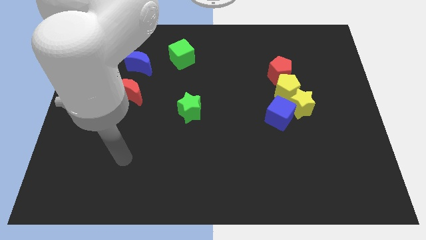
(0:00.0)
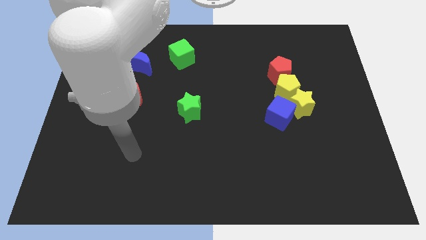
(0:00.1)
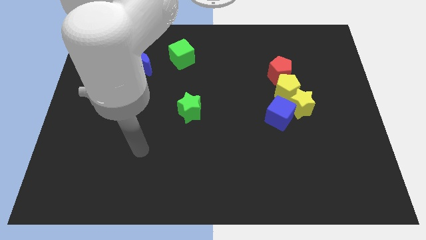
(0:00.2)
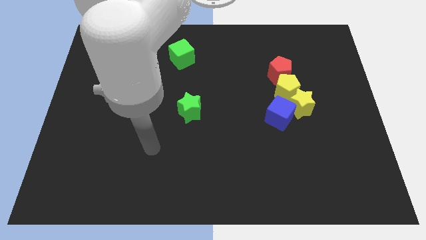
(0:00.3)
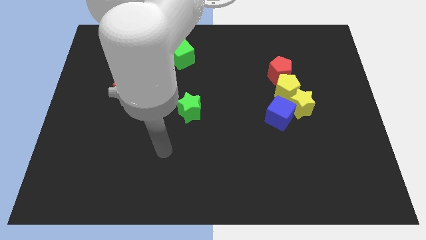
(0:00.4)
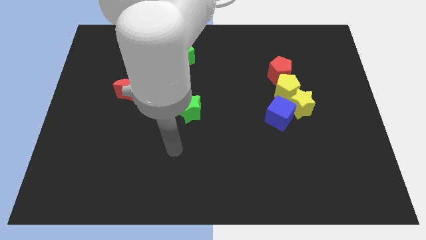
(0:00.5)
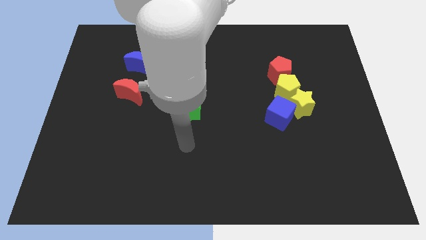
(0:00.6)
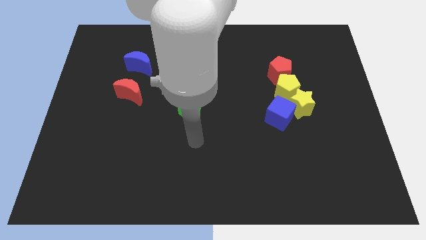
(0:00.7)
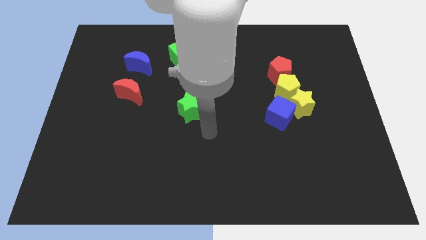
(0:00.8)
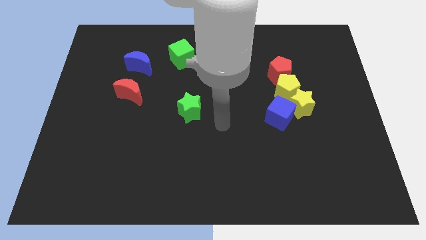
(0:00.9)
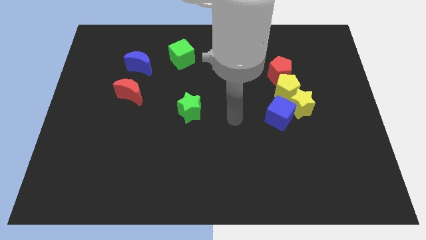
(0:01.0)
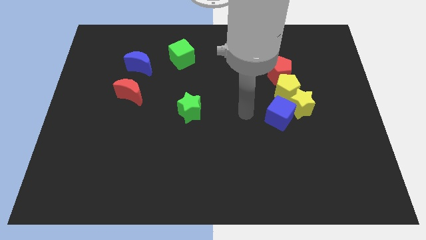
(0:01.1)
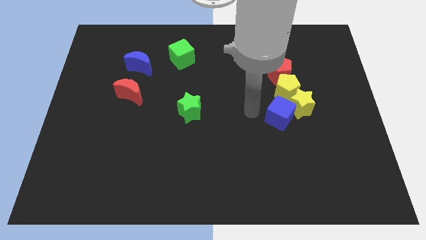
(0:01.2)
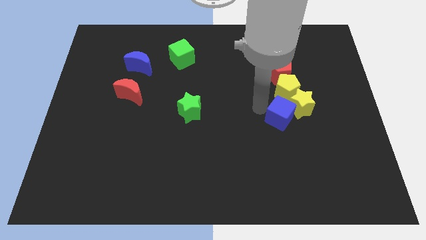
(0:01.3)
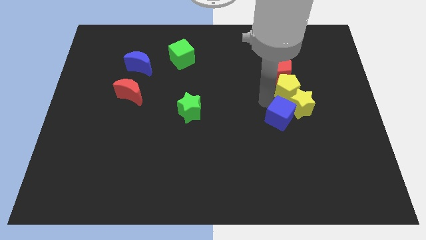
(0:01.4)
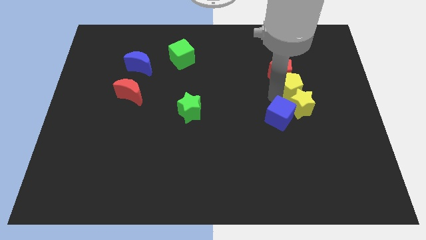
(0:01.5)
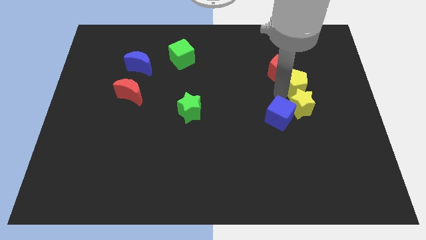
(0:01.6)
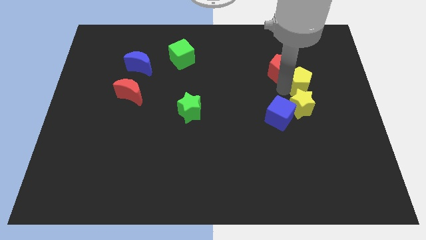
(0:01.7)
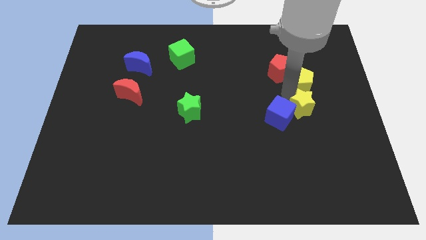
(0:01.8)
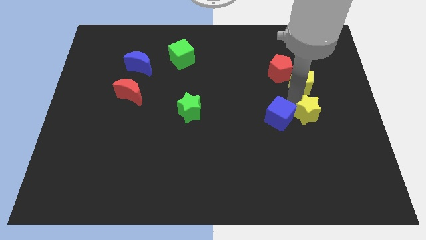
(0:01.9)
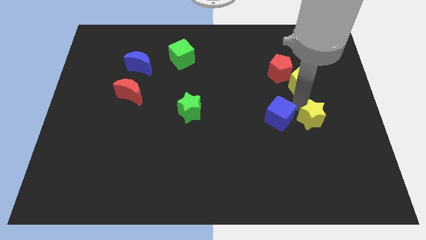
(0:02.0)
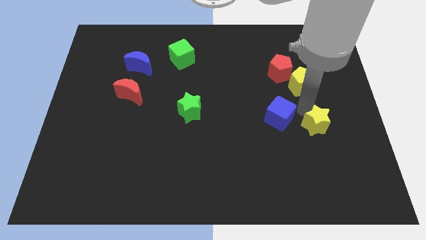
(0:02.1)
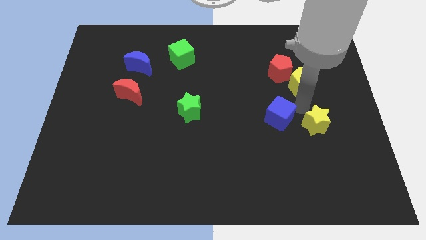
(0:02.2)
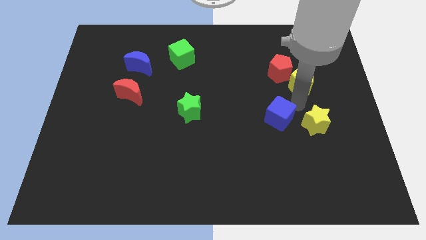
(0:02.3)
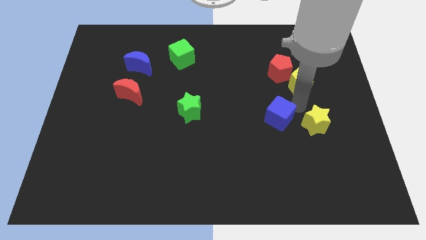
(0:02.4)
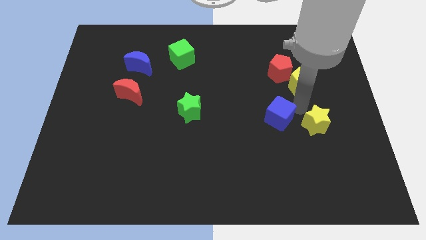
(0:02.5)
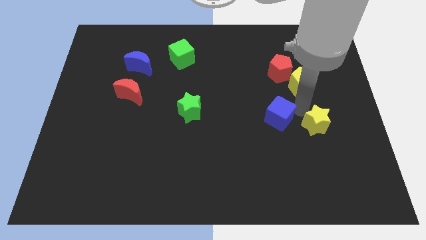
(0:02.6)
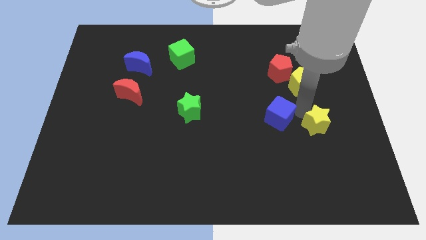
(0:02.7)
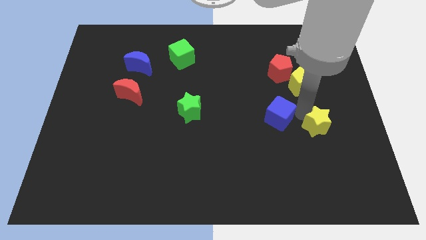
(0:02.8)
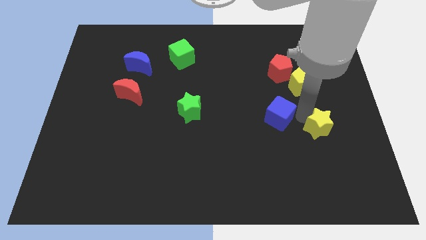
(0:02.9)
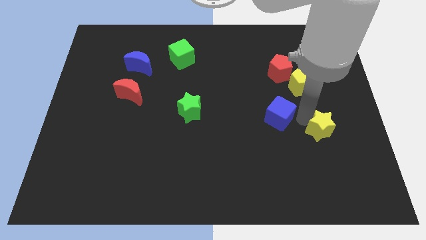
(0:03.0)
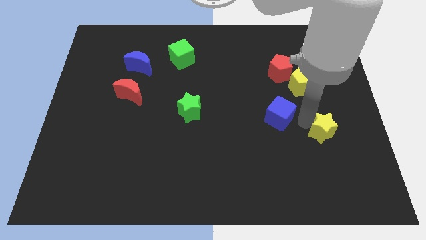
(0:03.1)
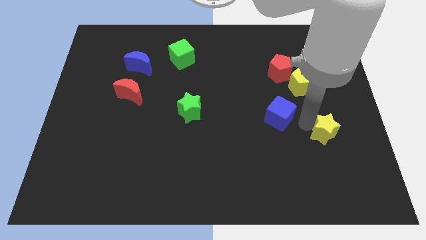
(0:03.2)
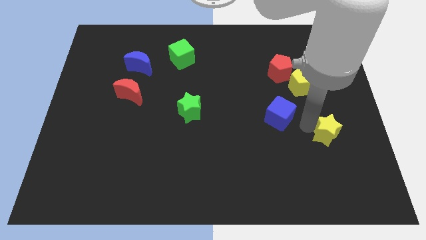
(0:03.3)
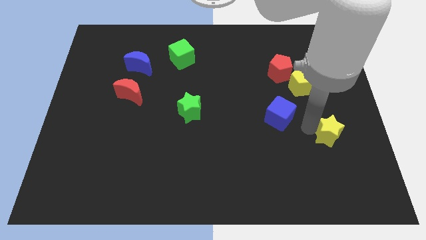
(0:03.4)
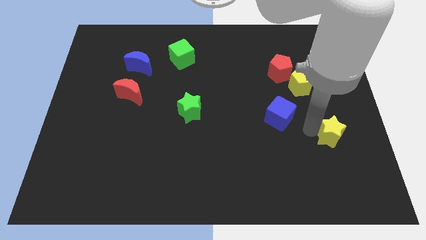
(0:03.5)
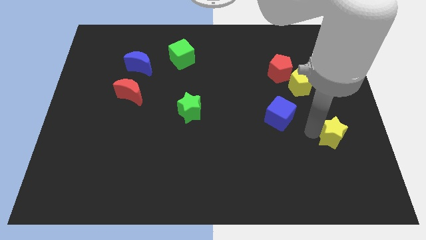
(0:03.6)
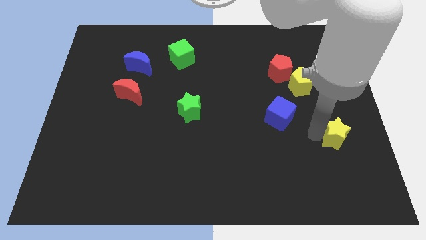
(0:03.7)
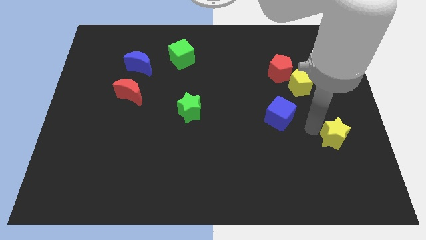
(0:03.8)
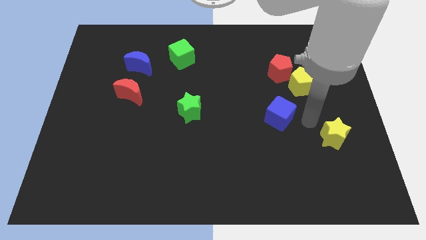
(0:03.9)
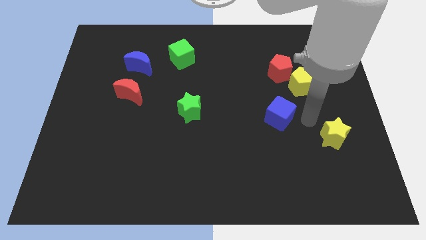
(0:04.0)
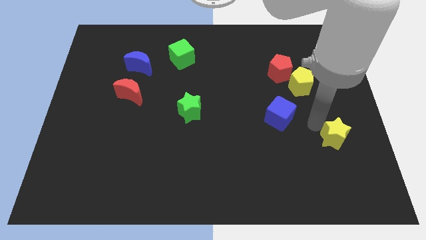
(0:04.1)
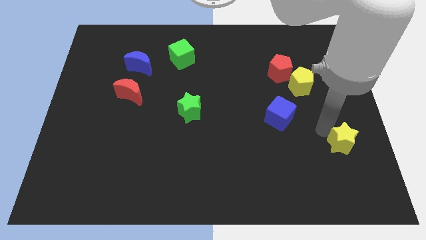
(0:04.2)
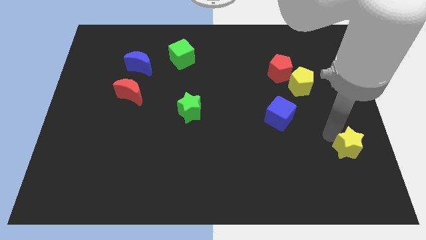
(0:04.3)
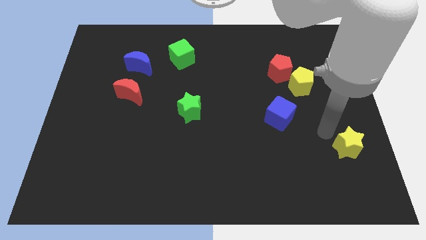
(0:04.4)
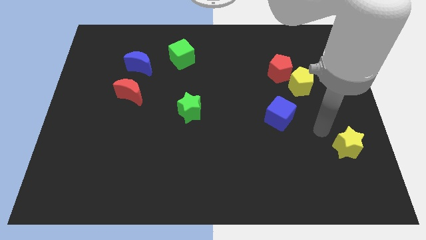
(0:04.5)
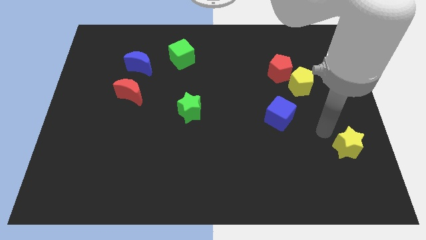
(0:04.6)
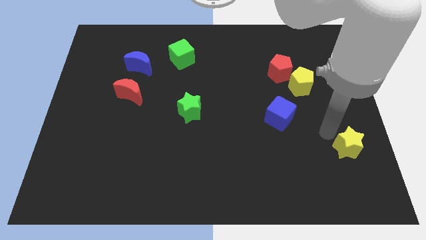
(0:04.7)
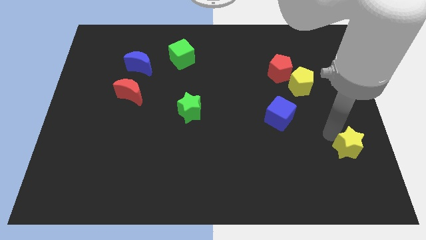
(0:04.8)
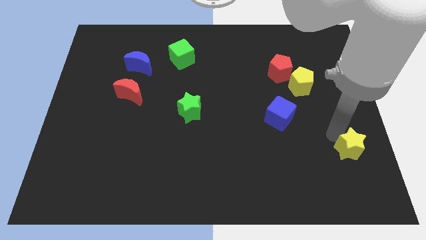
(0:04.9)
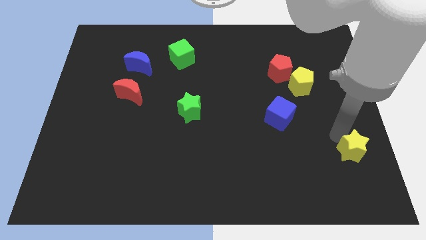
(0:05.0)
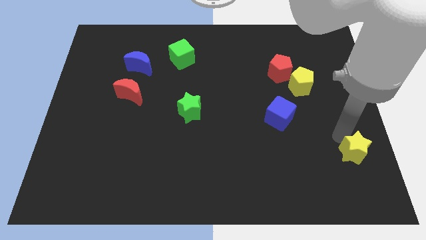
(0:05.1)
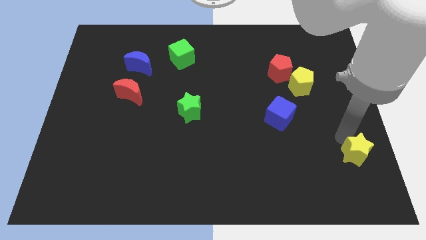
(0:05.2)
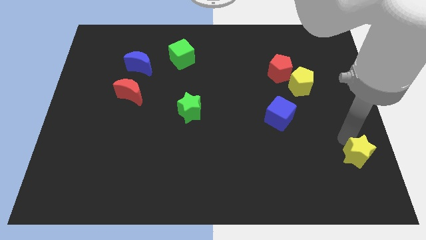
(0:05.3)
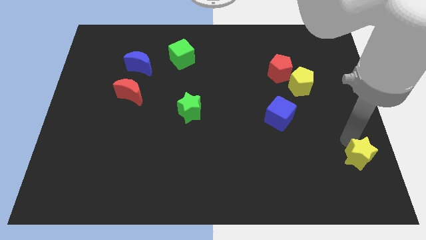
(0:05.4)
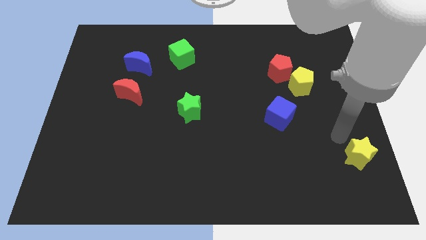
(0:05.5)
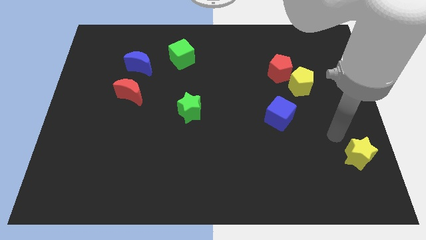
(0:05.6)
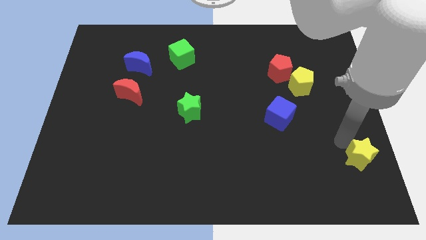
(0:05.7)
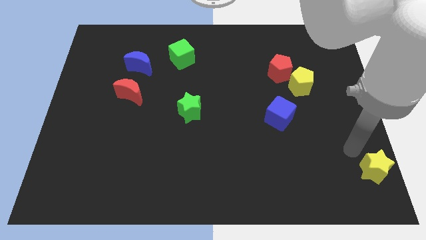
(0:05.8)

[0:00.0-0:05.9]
push the yellow star to the bottom right corner
